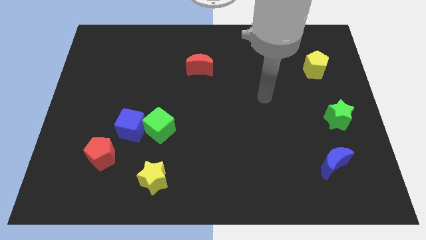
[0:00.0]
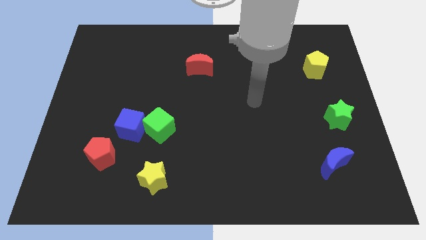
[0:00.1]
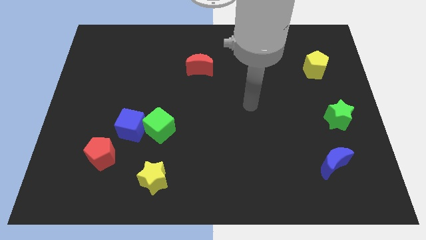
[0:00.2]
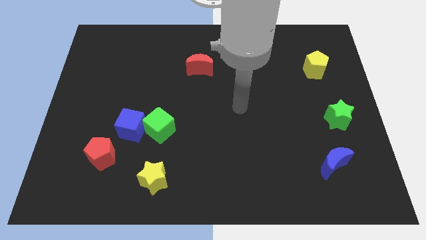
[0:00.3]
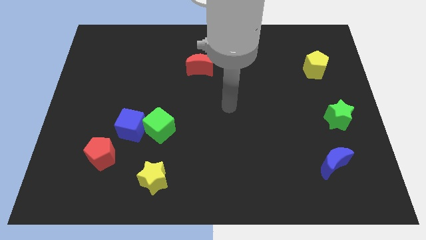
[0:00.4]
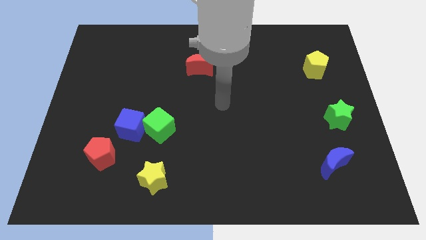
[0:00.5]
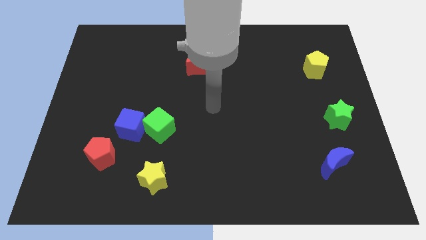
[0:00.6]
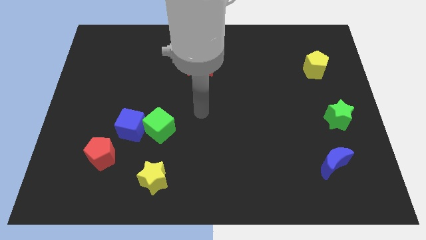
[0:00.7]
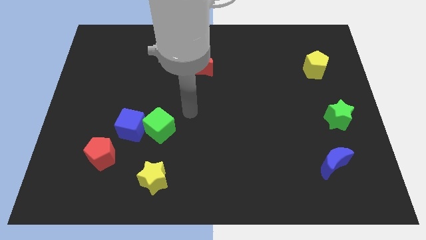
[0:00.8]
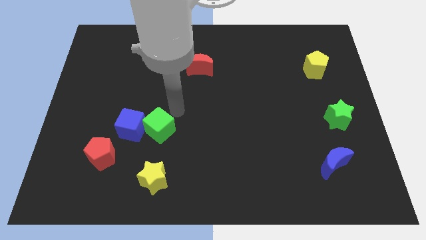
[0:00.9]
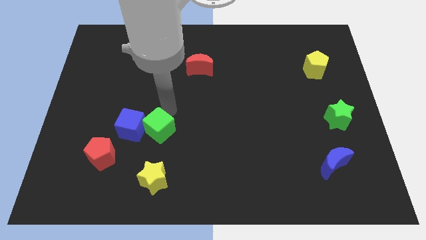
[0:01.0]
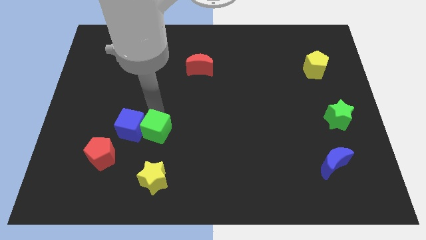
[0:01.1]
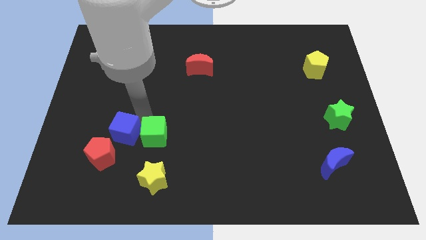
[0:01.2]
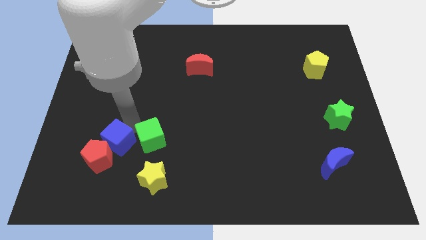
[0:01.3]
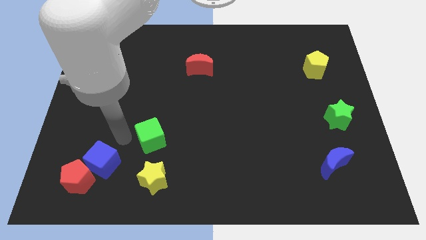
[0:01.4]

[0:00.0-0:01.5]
pull the green cube apart from the blue cube

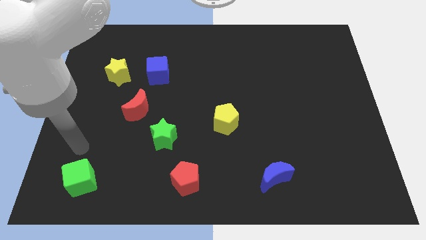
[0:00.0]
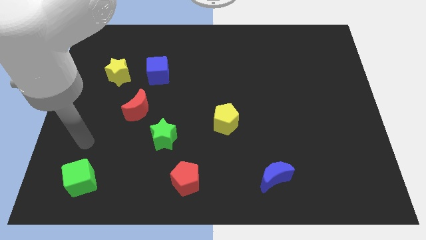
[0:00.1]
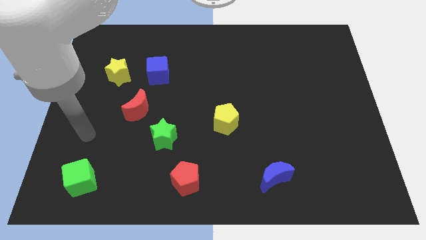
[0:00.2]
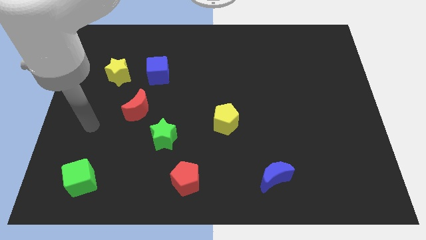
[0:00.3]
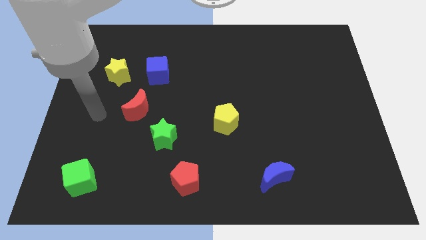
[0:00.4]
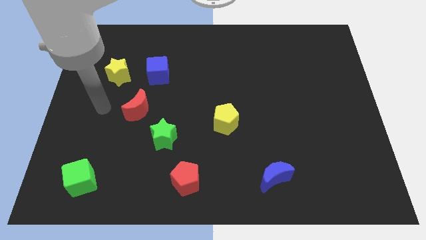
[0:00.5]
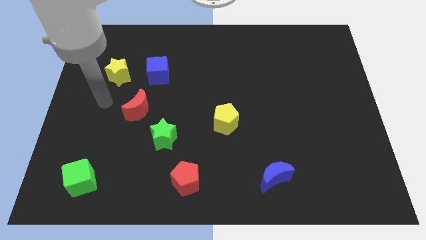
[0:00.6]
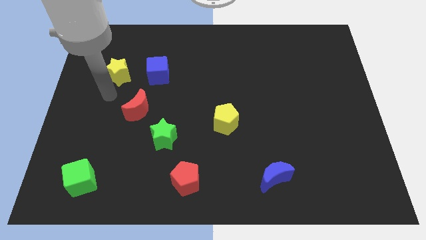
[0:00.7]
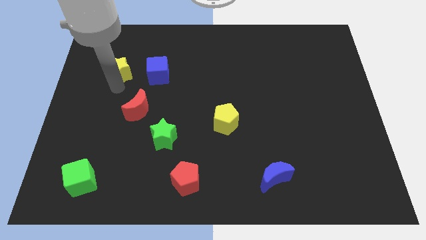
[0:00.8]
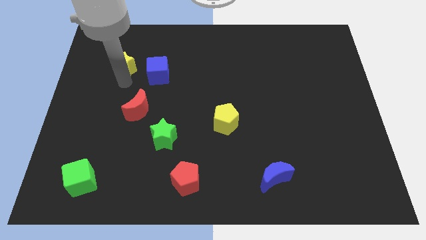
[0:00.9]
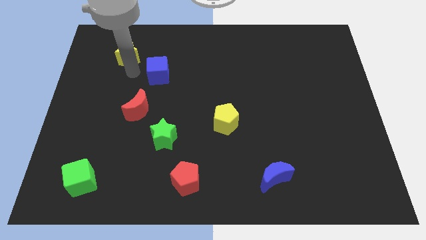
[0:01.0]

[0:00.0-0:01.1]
separate the blue cube from the yellow star

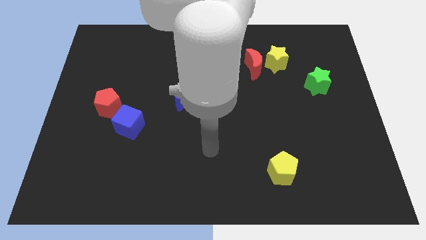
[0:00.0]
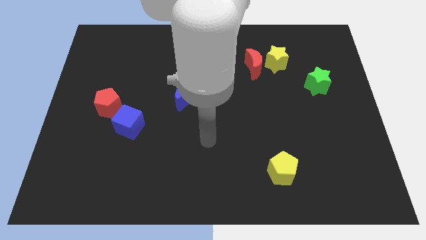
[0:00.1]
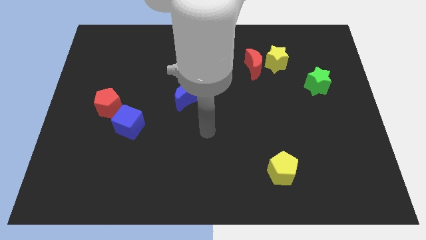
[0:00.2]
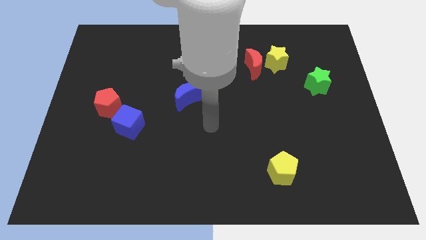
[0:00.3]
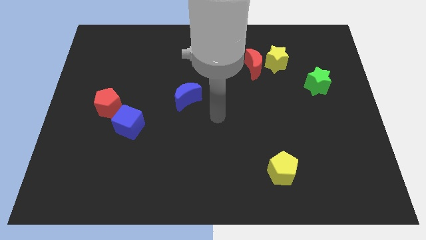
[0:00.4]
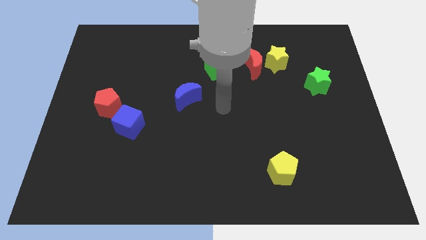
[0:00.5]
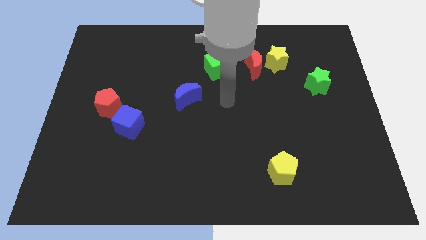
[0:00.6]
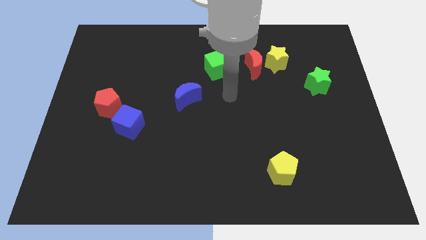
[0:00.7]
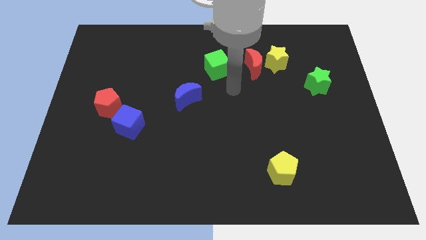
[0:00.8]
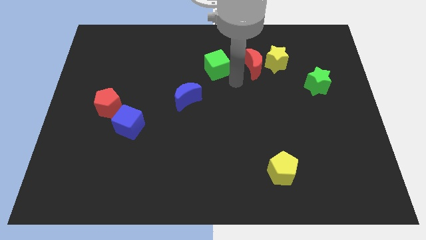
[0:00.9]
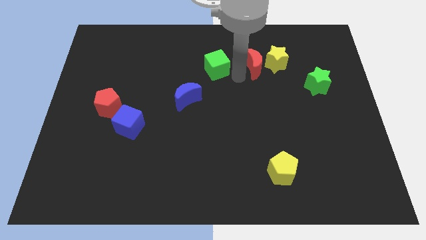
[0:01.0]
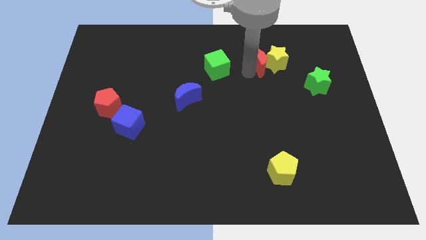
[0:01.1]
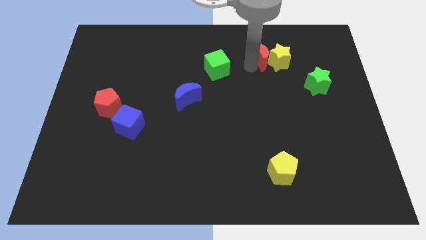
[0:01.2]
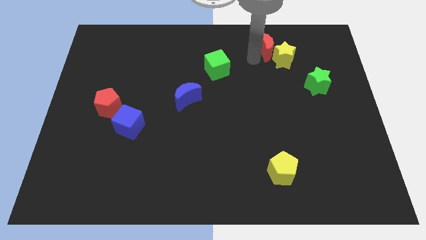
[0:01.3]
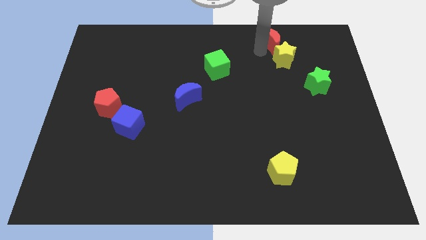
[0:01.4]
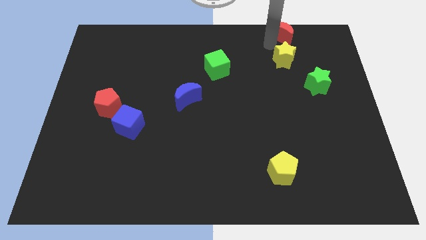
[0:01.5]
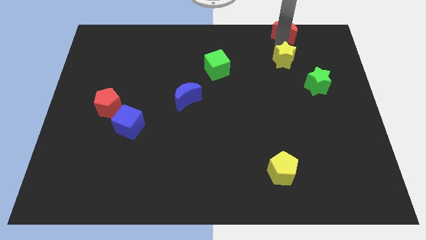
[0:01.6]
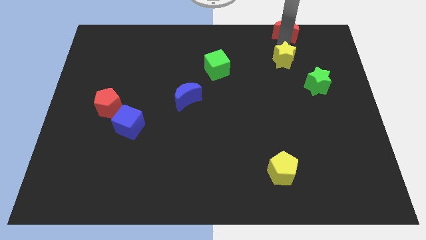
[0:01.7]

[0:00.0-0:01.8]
pull the yellow star apart from the red moon

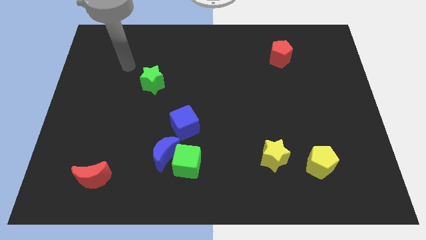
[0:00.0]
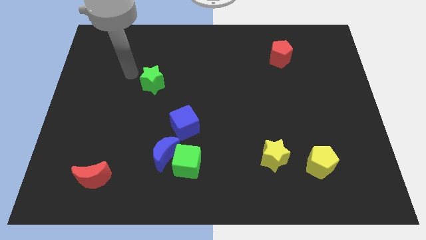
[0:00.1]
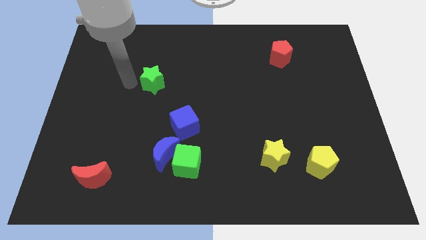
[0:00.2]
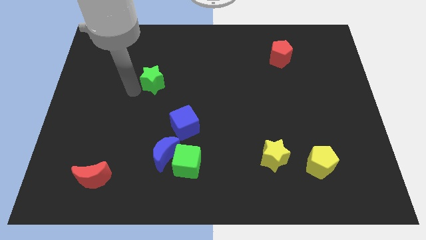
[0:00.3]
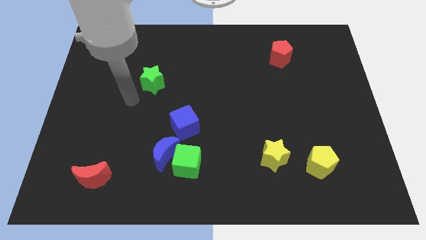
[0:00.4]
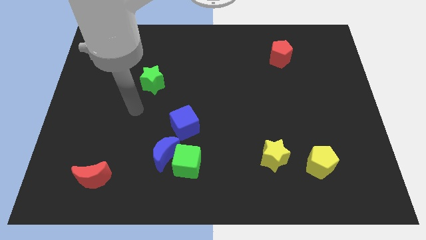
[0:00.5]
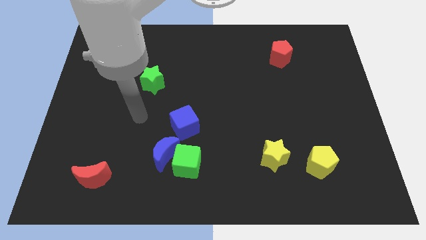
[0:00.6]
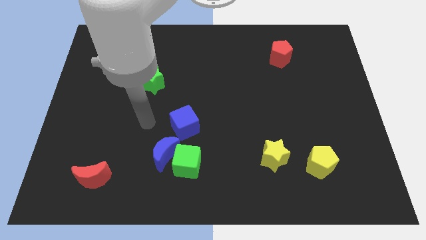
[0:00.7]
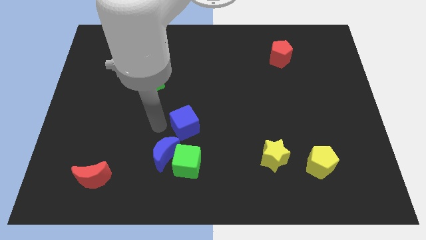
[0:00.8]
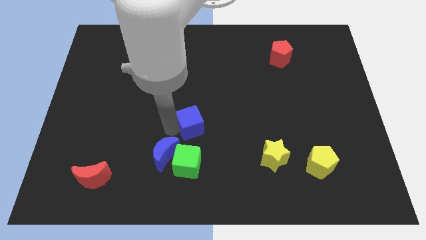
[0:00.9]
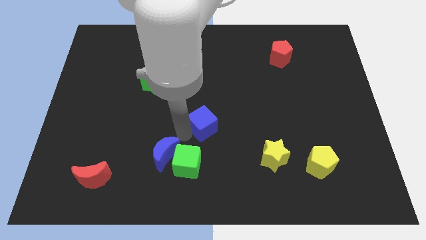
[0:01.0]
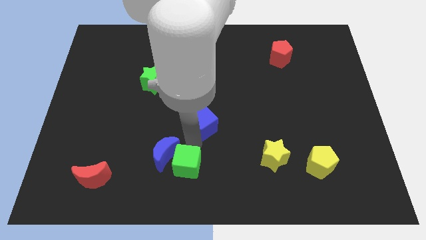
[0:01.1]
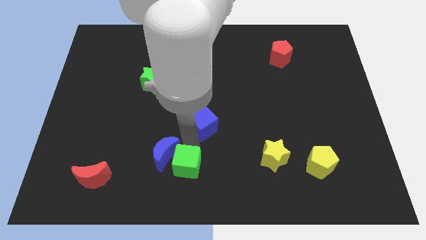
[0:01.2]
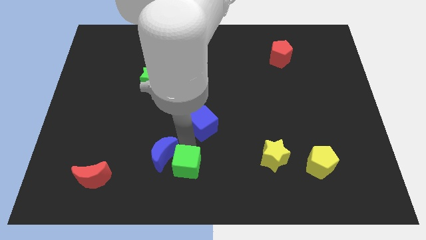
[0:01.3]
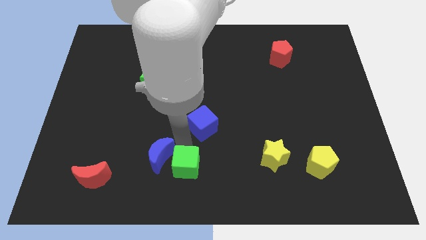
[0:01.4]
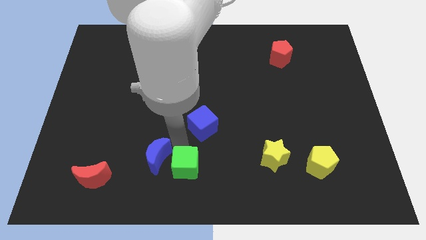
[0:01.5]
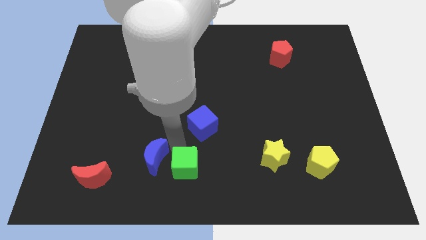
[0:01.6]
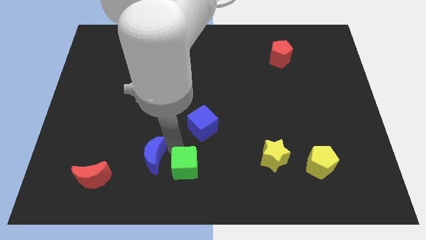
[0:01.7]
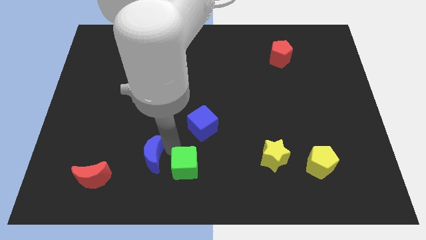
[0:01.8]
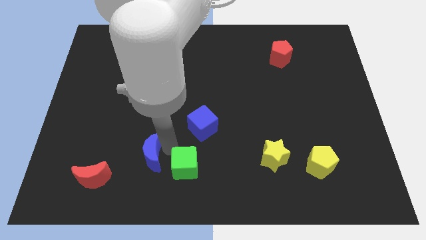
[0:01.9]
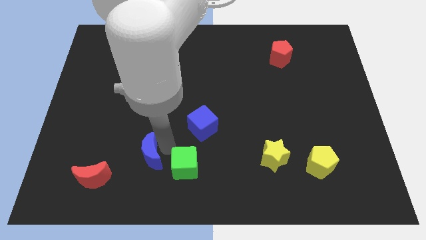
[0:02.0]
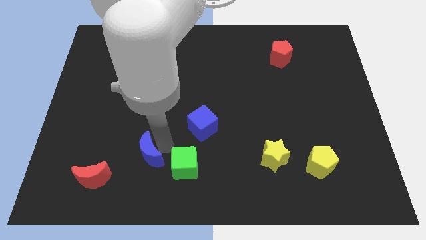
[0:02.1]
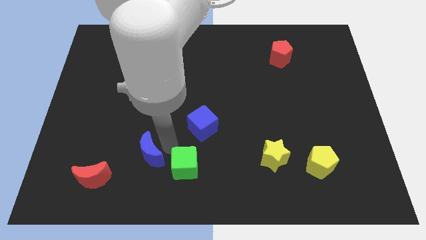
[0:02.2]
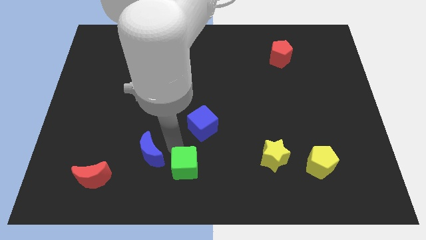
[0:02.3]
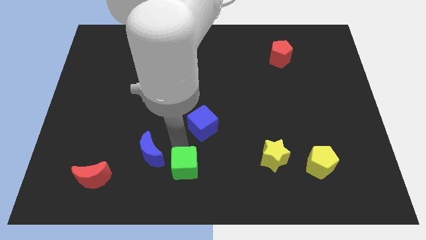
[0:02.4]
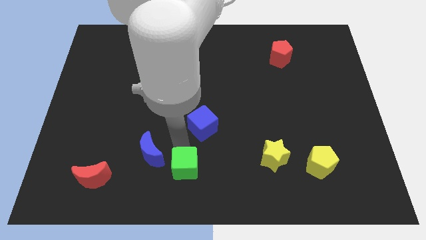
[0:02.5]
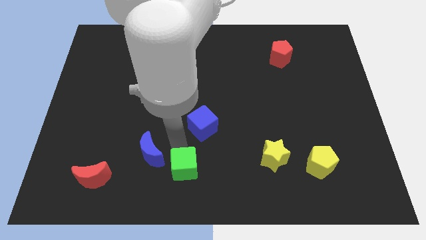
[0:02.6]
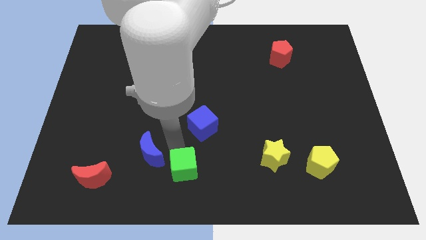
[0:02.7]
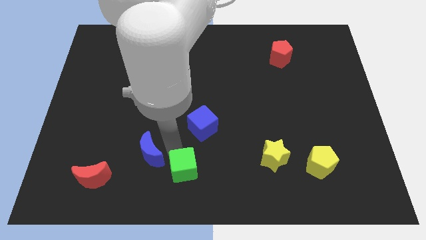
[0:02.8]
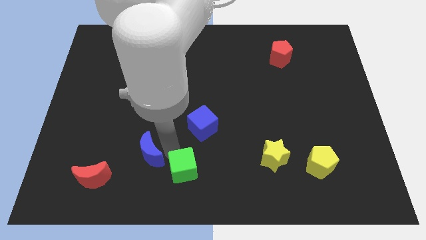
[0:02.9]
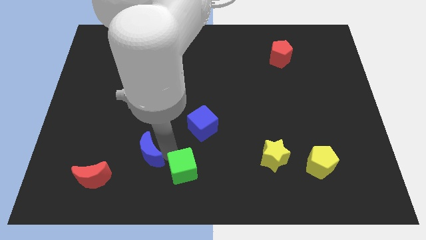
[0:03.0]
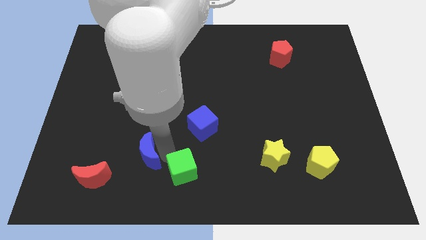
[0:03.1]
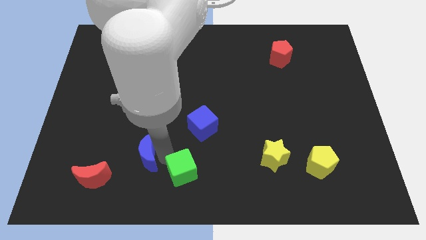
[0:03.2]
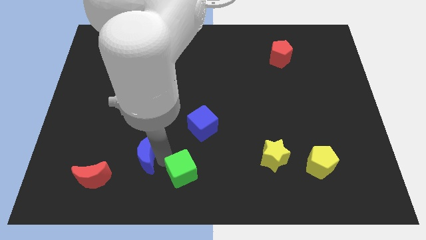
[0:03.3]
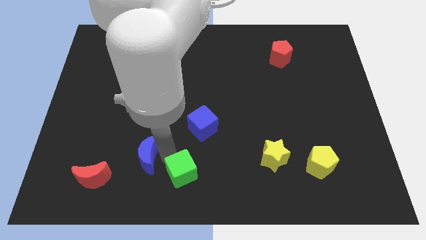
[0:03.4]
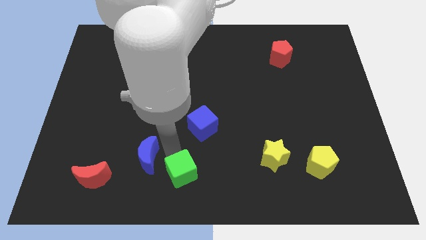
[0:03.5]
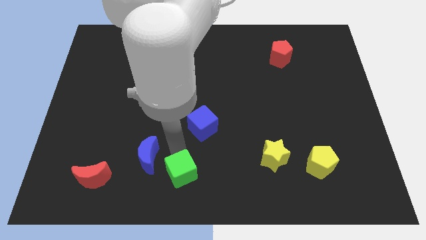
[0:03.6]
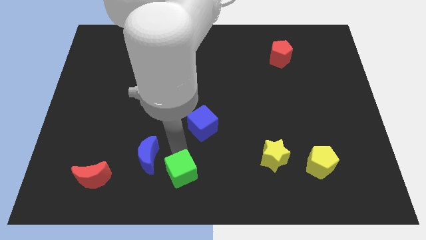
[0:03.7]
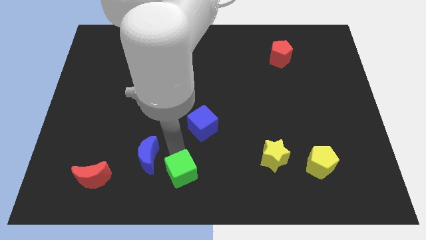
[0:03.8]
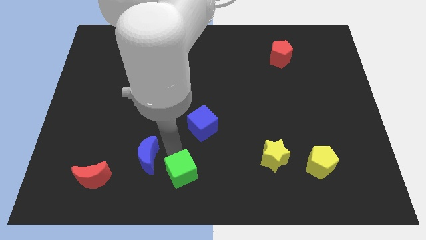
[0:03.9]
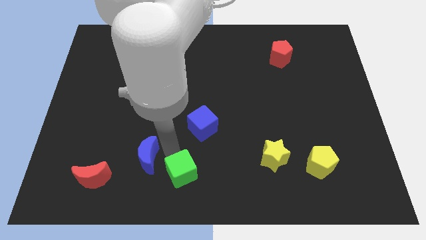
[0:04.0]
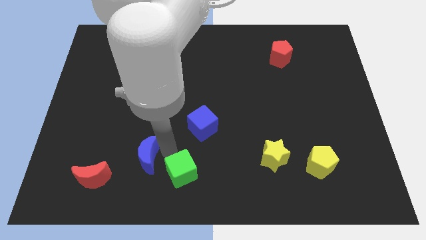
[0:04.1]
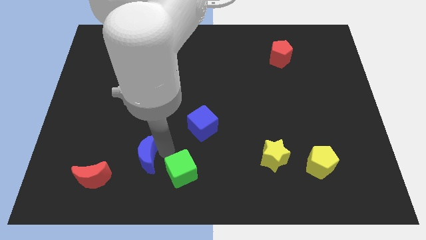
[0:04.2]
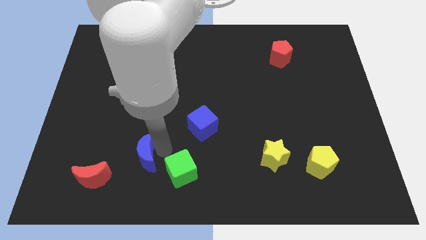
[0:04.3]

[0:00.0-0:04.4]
move the blue moon away from the green cube and blue cube

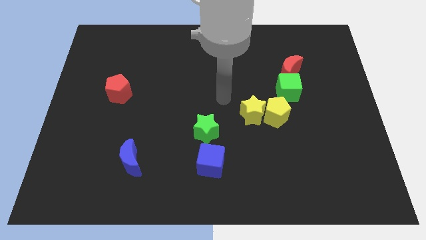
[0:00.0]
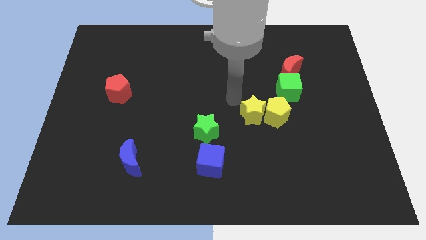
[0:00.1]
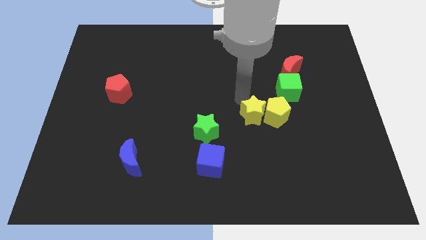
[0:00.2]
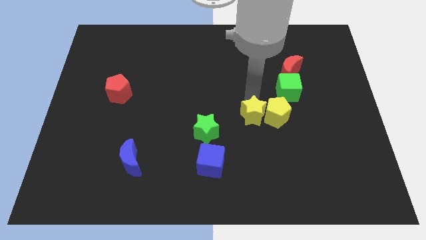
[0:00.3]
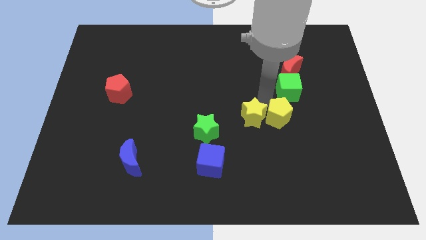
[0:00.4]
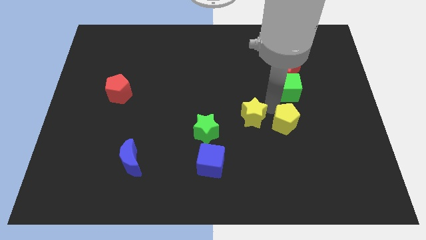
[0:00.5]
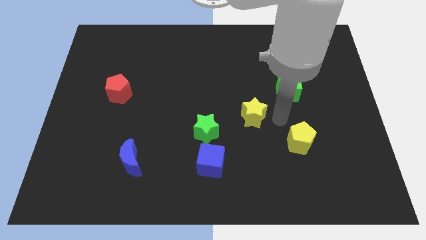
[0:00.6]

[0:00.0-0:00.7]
pull the yellow star apart from the yellow pentagon
